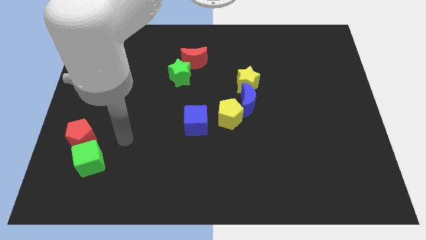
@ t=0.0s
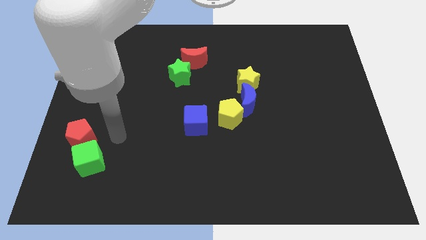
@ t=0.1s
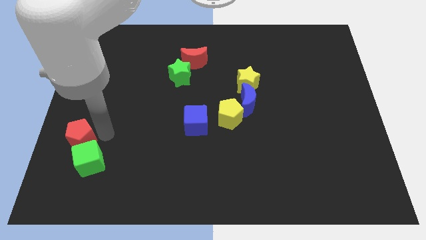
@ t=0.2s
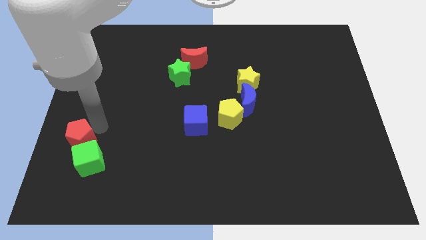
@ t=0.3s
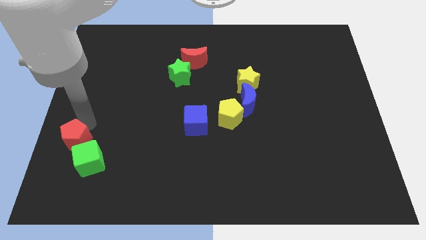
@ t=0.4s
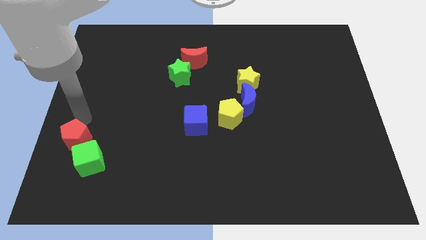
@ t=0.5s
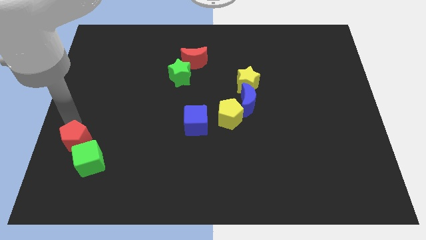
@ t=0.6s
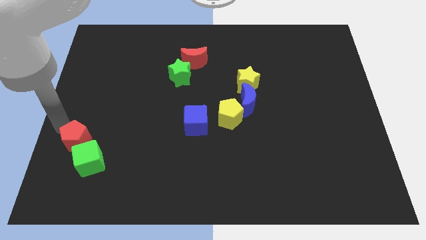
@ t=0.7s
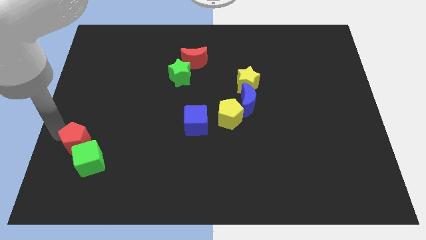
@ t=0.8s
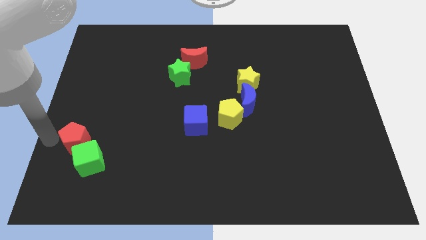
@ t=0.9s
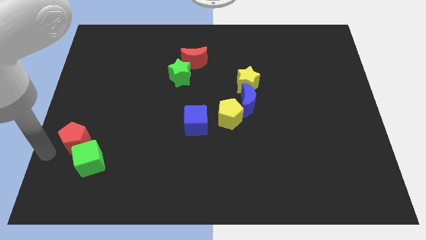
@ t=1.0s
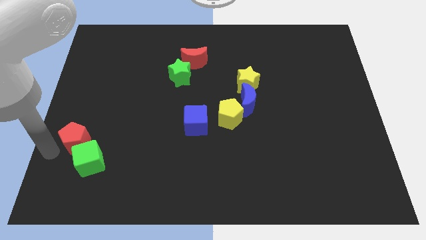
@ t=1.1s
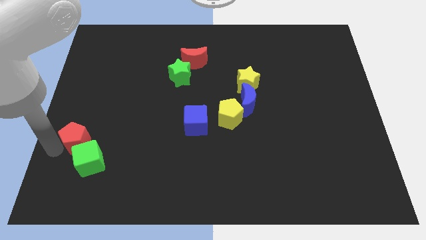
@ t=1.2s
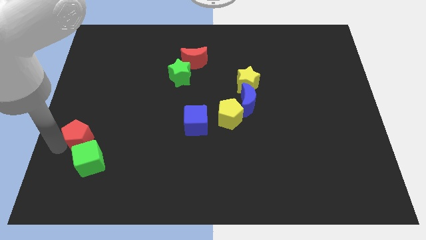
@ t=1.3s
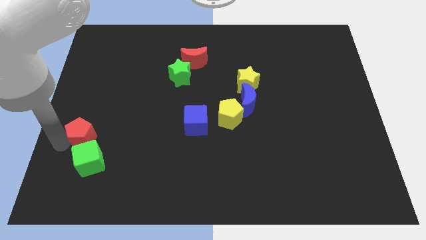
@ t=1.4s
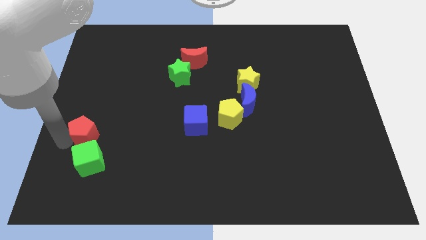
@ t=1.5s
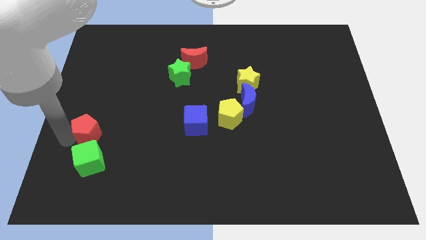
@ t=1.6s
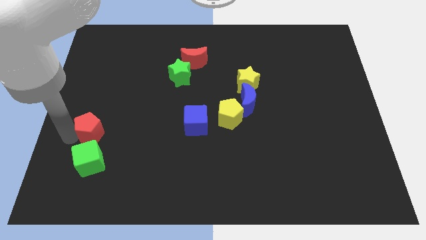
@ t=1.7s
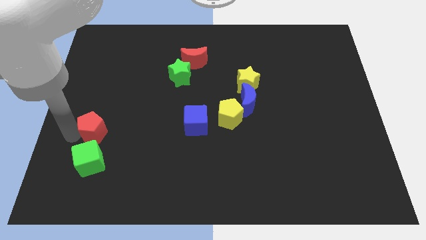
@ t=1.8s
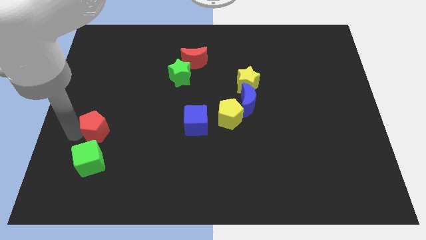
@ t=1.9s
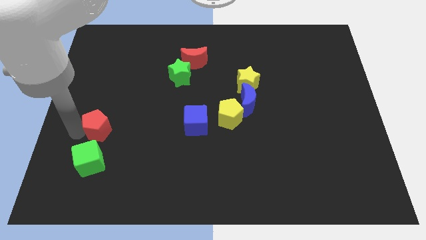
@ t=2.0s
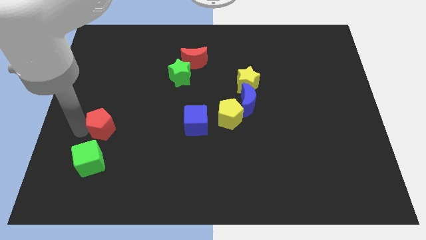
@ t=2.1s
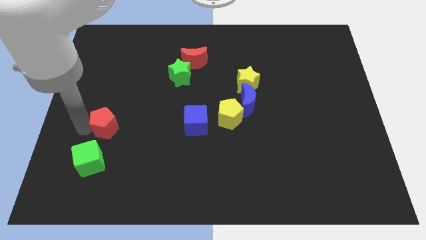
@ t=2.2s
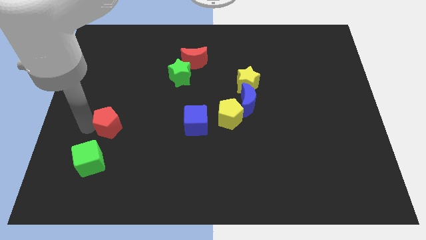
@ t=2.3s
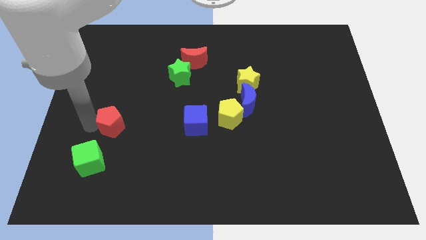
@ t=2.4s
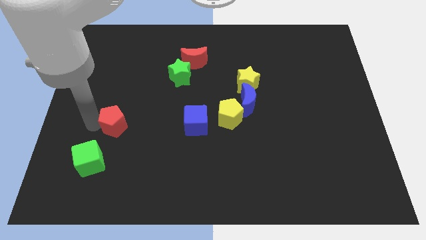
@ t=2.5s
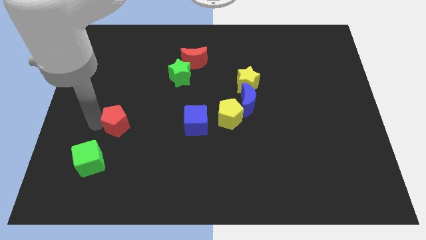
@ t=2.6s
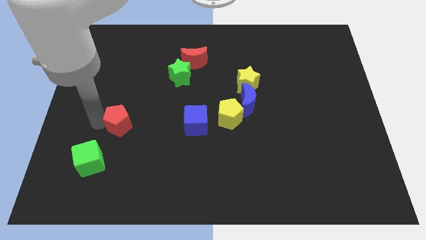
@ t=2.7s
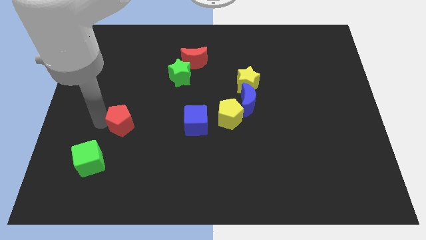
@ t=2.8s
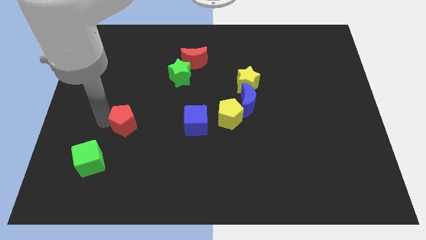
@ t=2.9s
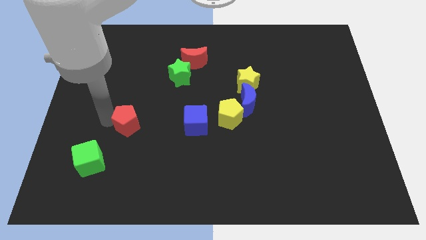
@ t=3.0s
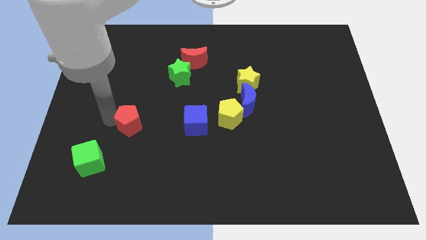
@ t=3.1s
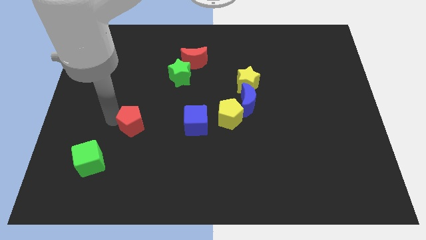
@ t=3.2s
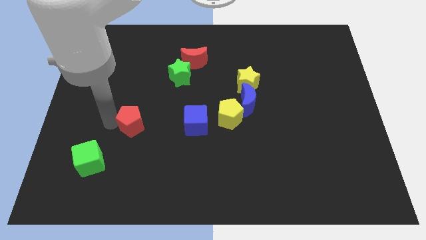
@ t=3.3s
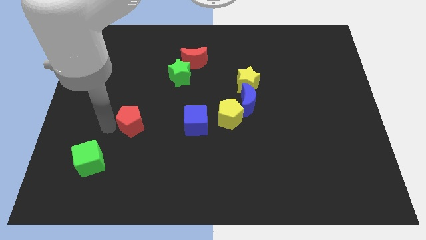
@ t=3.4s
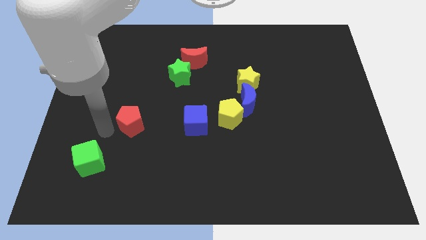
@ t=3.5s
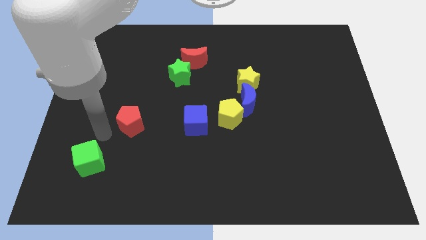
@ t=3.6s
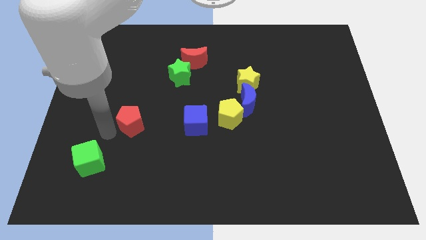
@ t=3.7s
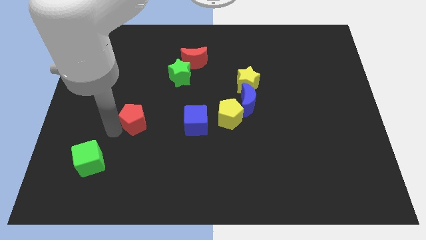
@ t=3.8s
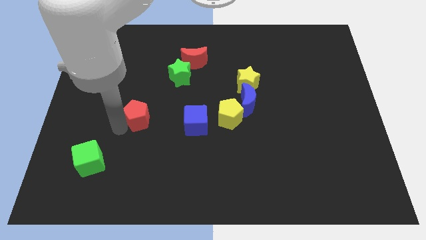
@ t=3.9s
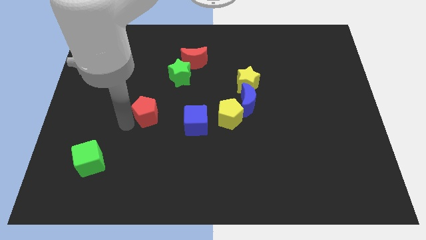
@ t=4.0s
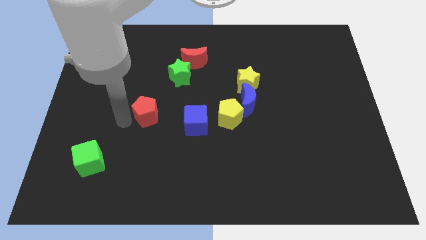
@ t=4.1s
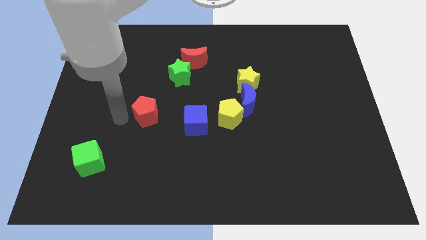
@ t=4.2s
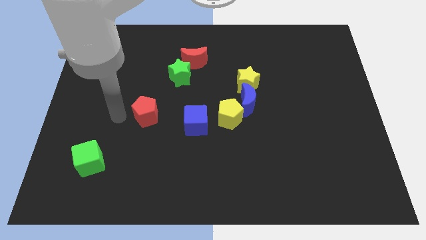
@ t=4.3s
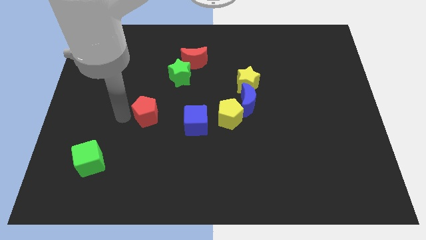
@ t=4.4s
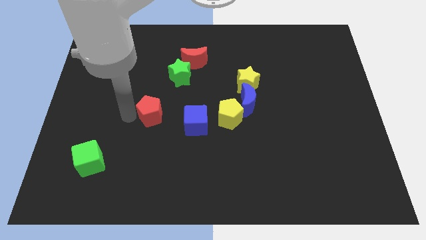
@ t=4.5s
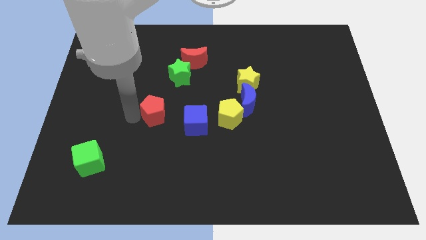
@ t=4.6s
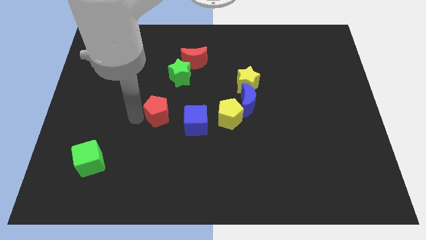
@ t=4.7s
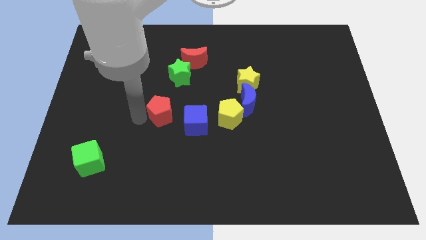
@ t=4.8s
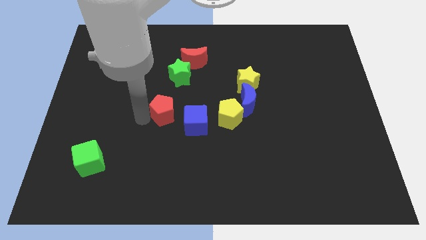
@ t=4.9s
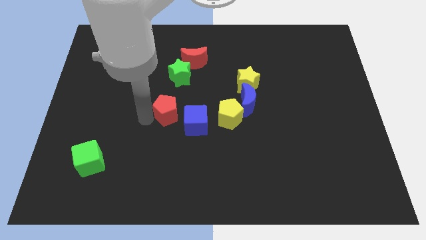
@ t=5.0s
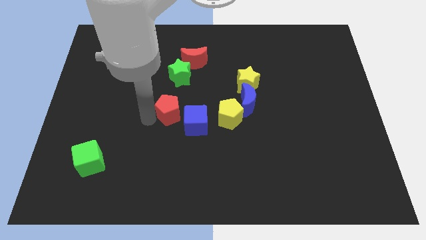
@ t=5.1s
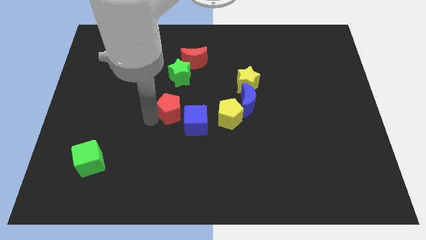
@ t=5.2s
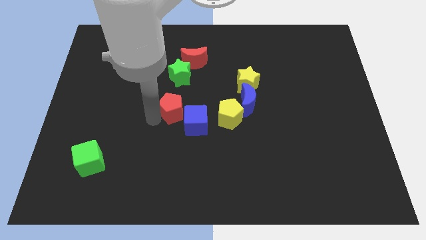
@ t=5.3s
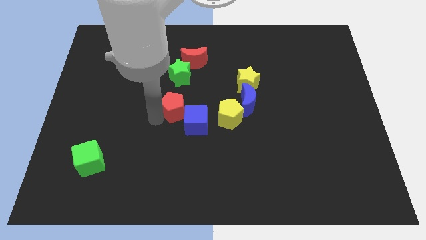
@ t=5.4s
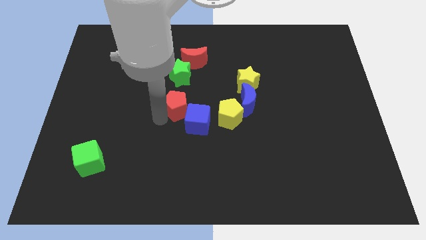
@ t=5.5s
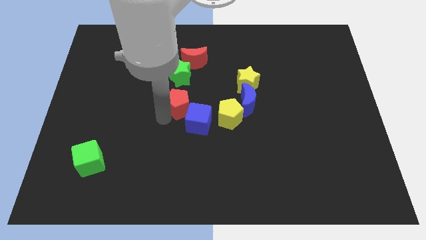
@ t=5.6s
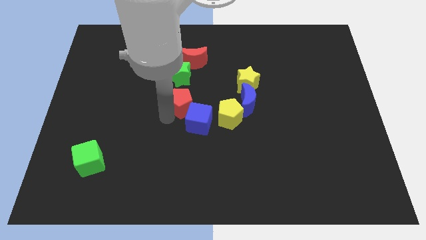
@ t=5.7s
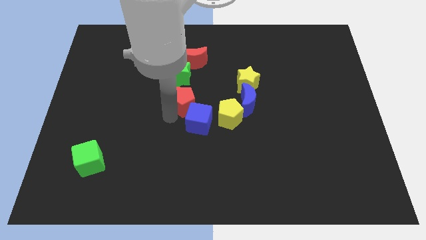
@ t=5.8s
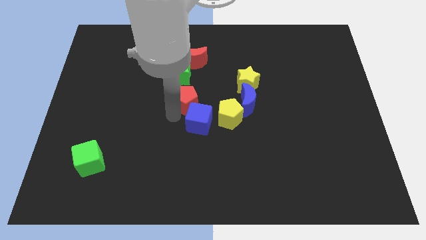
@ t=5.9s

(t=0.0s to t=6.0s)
put the red pentagon to the bottom right of the green star
